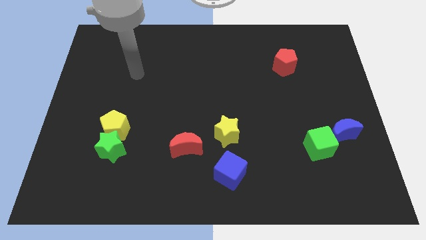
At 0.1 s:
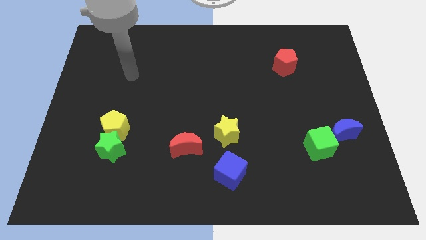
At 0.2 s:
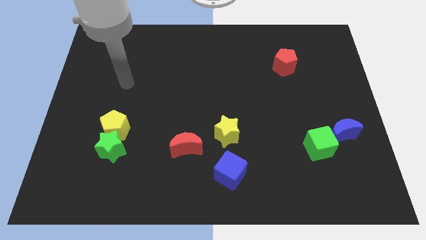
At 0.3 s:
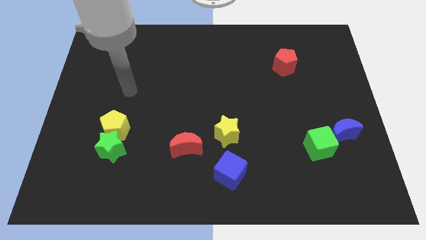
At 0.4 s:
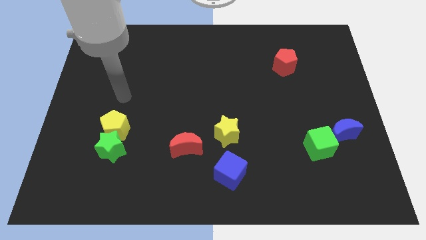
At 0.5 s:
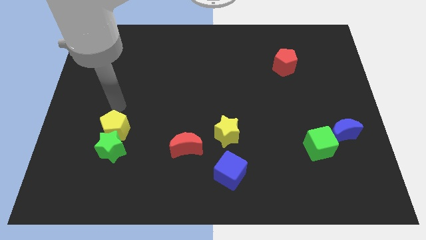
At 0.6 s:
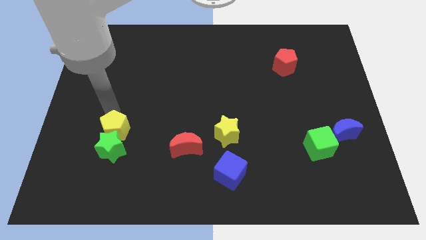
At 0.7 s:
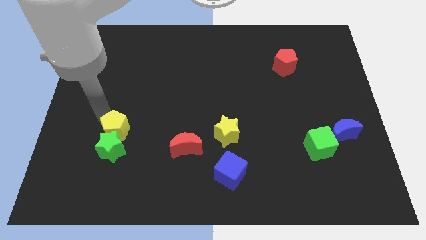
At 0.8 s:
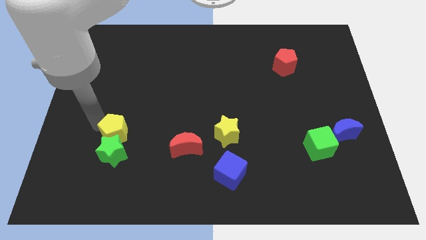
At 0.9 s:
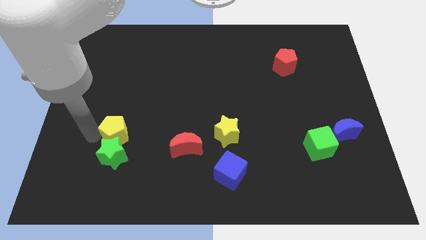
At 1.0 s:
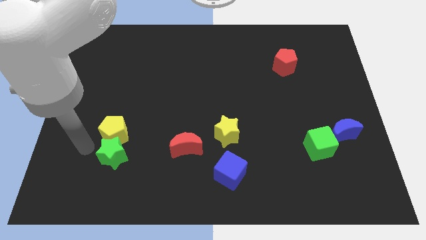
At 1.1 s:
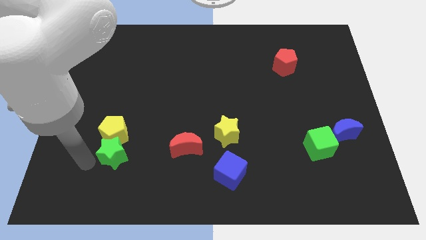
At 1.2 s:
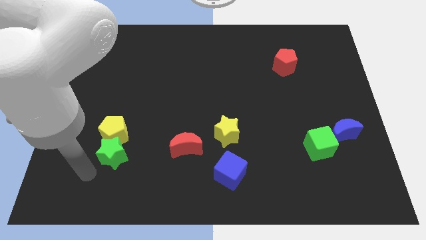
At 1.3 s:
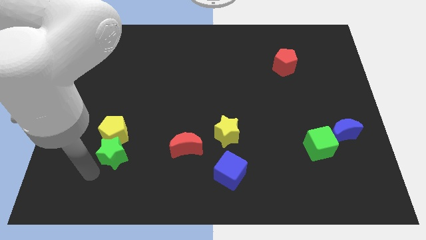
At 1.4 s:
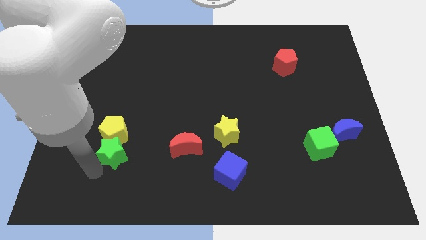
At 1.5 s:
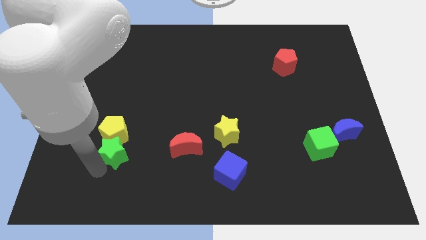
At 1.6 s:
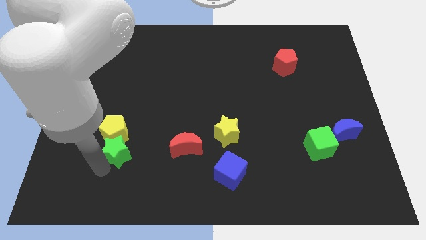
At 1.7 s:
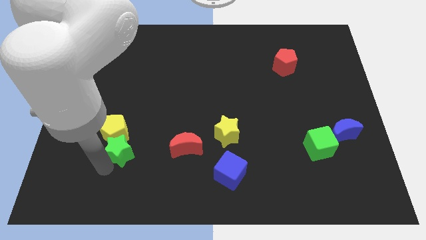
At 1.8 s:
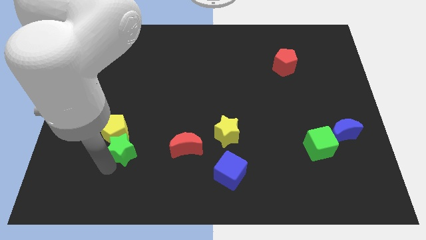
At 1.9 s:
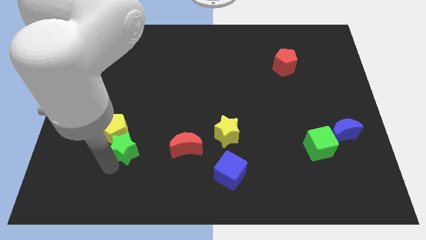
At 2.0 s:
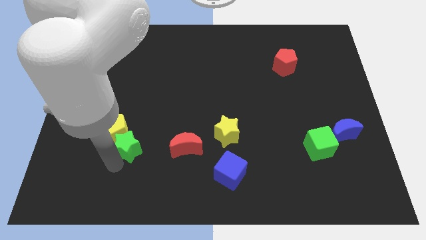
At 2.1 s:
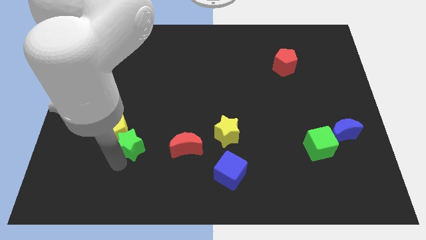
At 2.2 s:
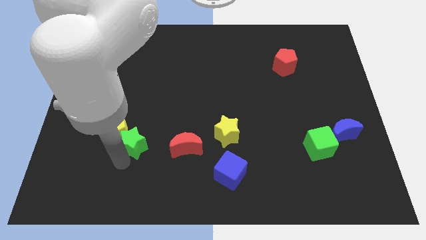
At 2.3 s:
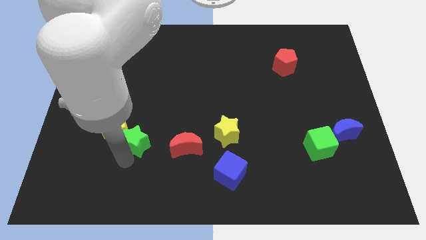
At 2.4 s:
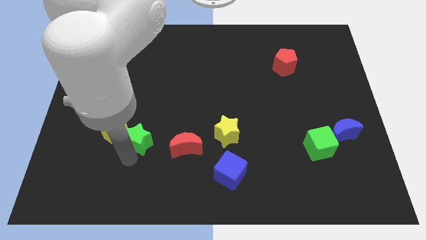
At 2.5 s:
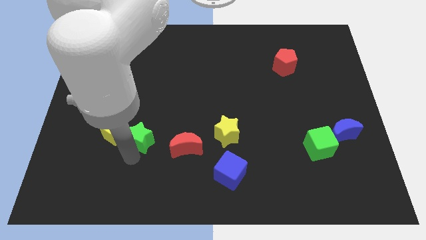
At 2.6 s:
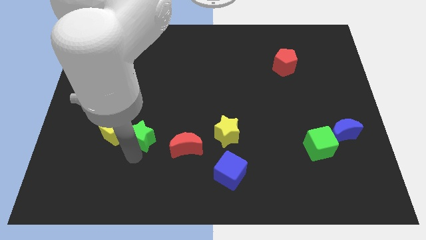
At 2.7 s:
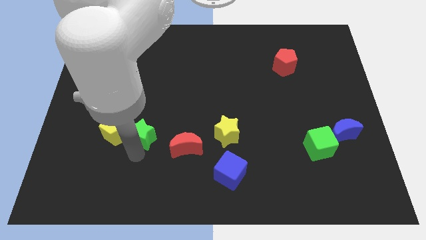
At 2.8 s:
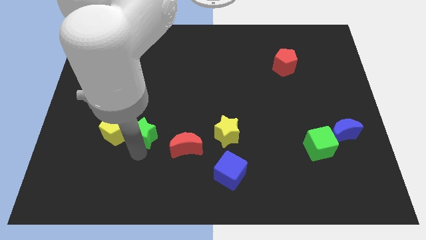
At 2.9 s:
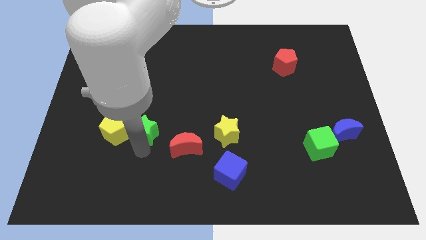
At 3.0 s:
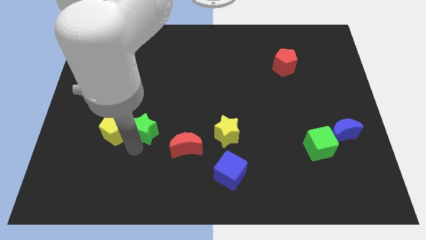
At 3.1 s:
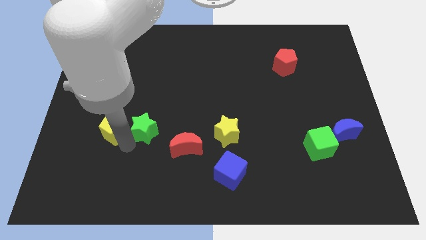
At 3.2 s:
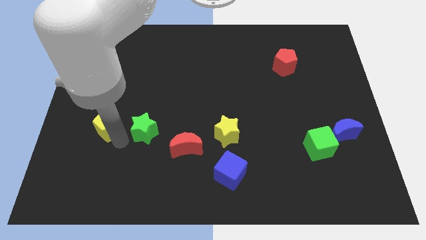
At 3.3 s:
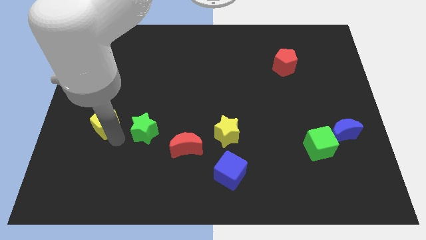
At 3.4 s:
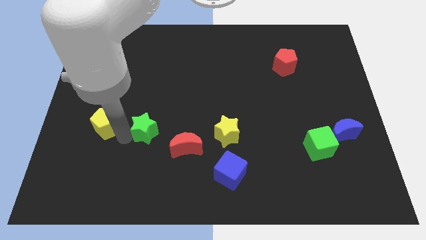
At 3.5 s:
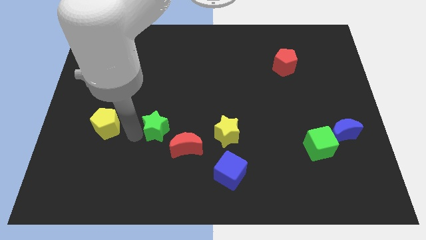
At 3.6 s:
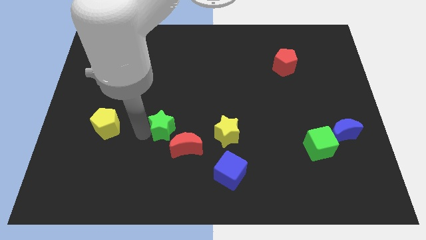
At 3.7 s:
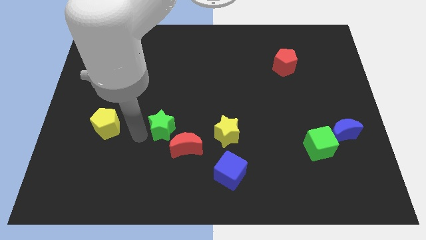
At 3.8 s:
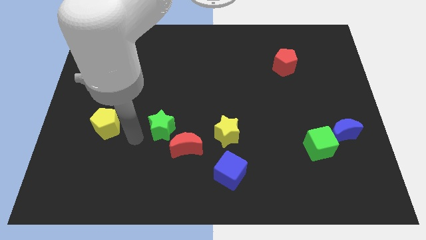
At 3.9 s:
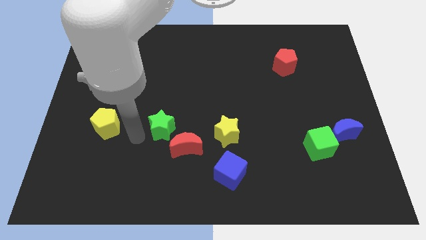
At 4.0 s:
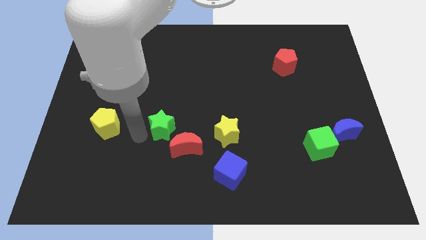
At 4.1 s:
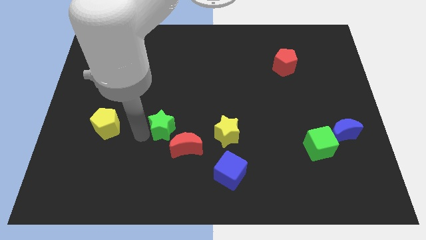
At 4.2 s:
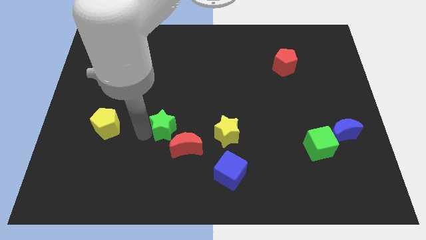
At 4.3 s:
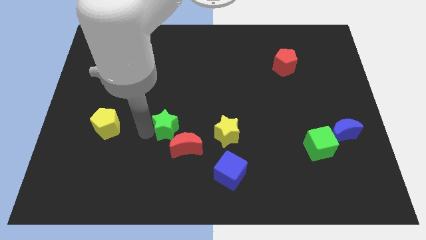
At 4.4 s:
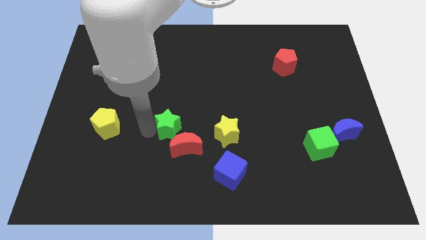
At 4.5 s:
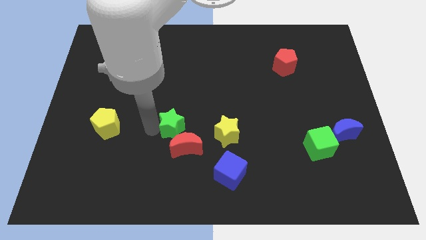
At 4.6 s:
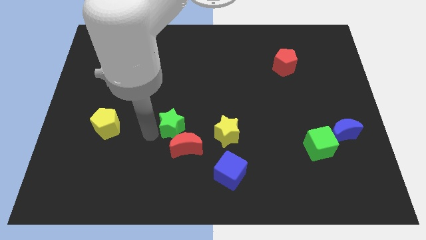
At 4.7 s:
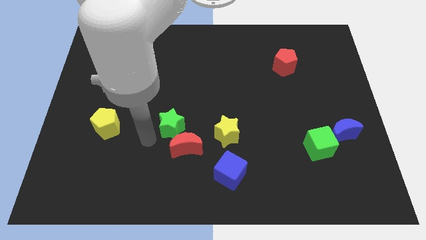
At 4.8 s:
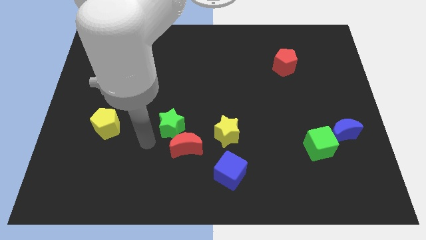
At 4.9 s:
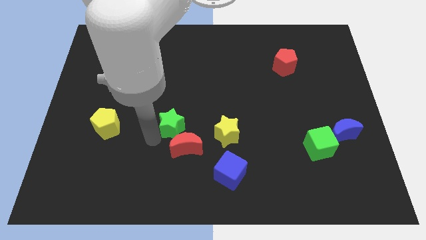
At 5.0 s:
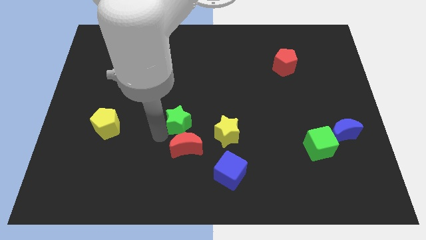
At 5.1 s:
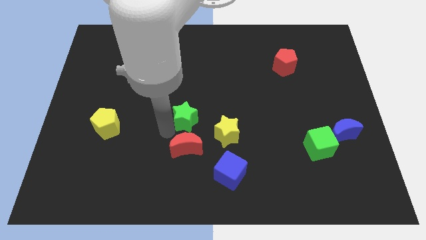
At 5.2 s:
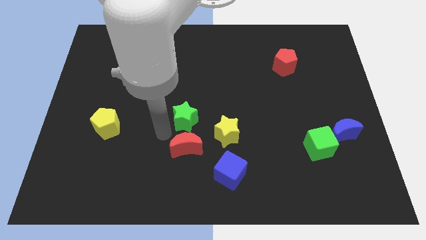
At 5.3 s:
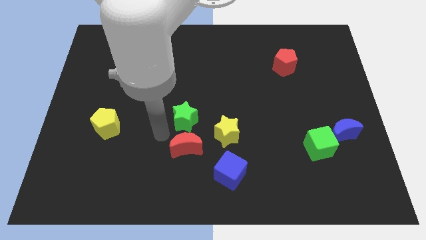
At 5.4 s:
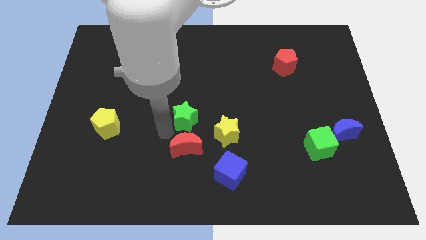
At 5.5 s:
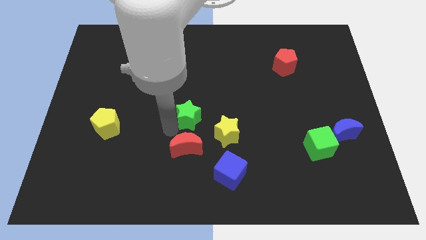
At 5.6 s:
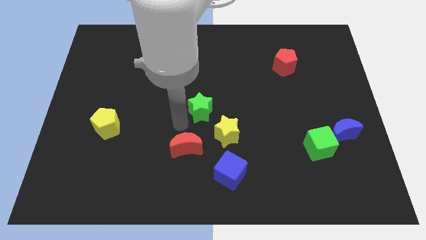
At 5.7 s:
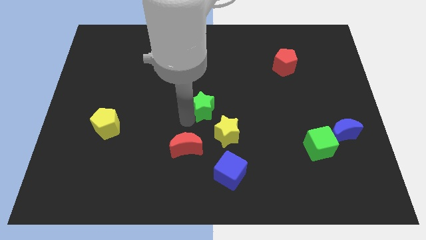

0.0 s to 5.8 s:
slide the green star to the top side of the yellow star

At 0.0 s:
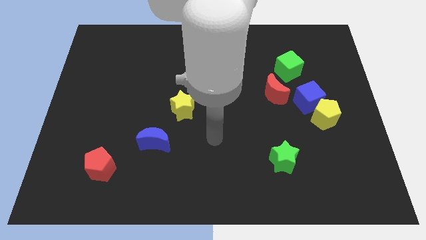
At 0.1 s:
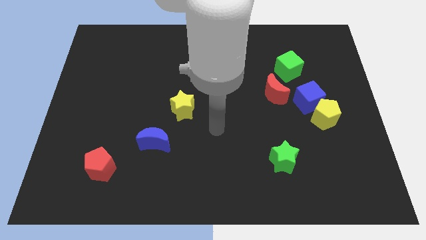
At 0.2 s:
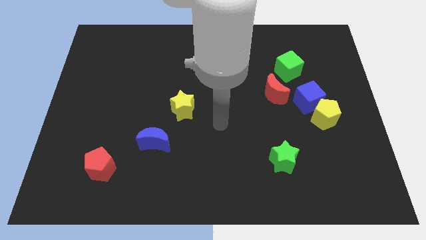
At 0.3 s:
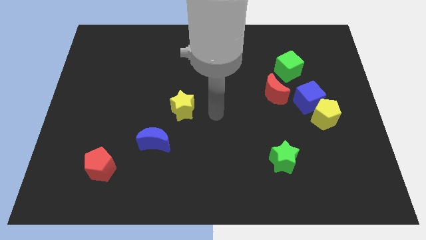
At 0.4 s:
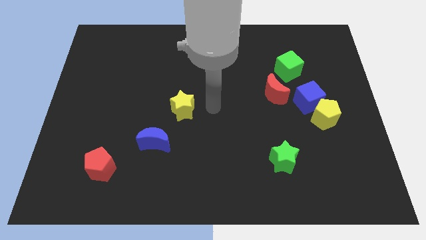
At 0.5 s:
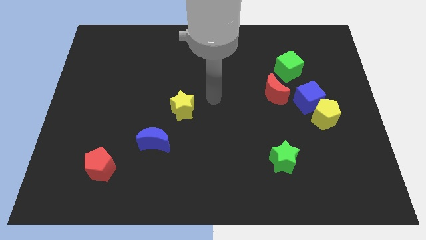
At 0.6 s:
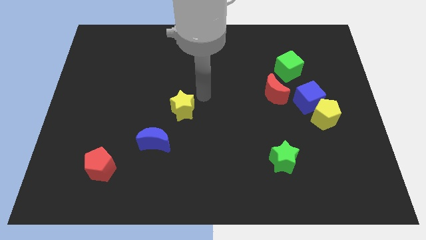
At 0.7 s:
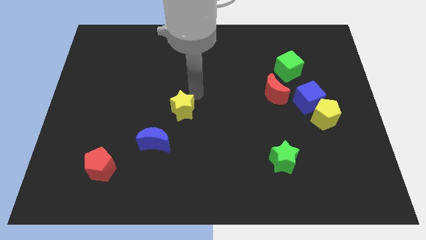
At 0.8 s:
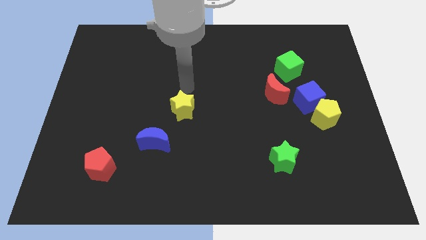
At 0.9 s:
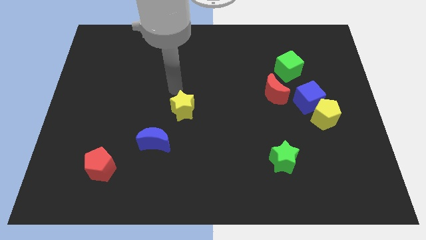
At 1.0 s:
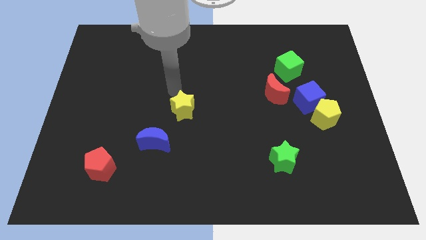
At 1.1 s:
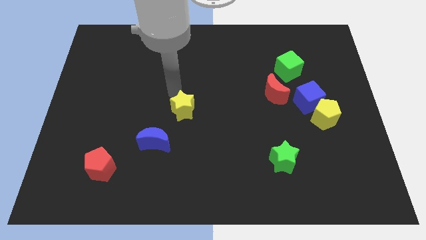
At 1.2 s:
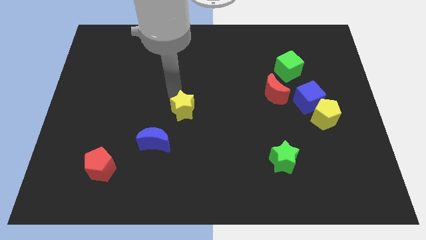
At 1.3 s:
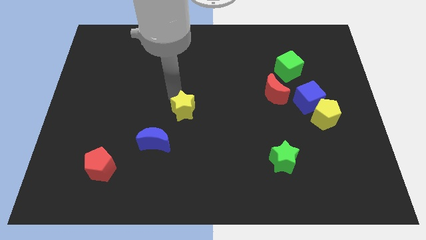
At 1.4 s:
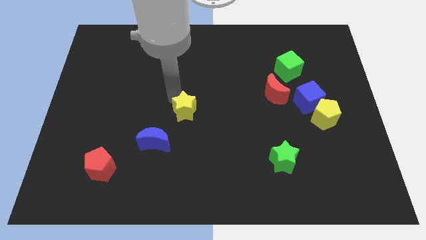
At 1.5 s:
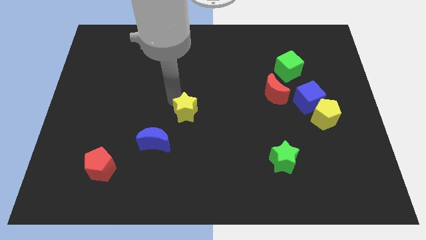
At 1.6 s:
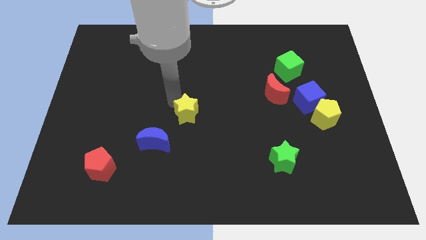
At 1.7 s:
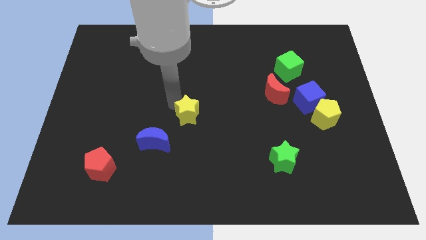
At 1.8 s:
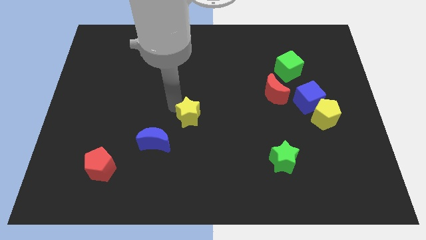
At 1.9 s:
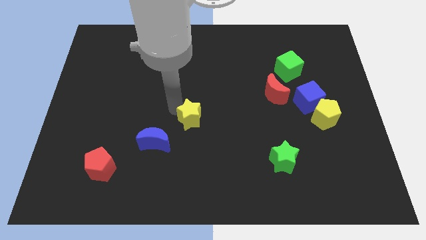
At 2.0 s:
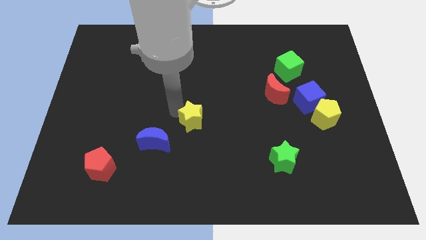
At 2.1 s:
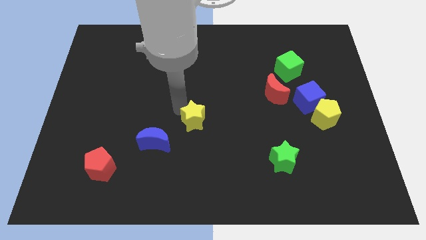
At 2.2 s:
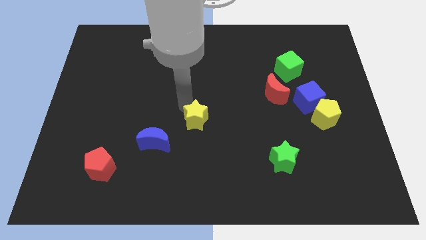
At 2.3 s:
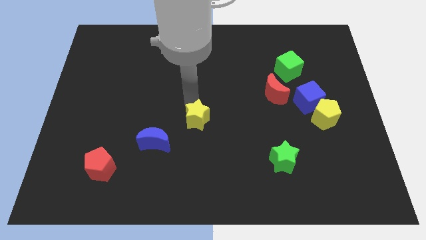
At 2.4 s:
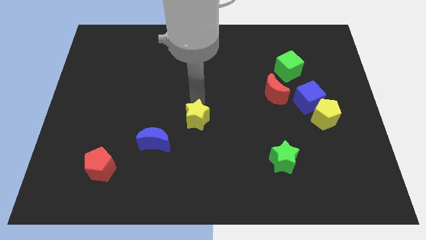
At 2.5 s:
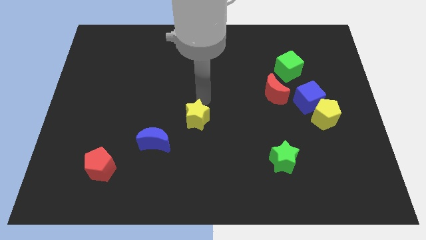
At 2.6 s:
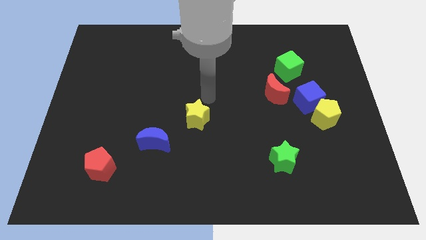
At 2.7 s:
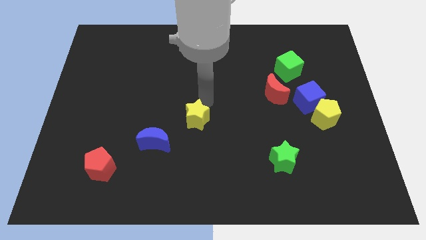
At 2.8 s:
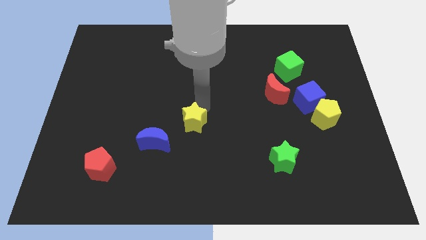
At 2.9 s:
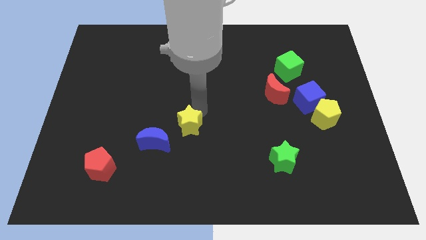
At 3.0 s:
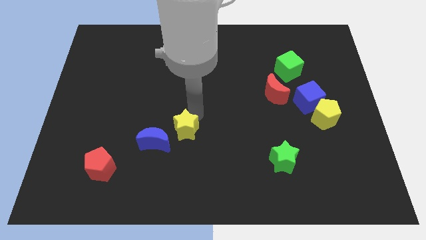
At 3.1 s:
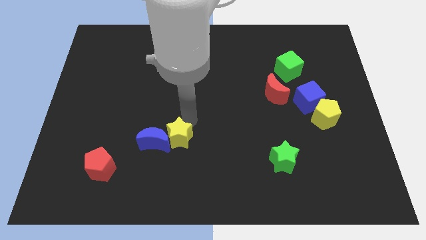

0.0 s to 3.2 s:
move the yellow star to the bottom right of the blue moon
